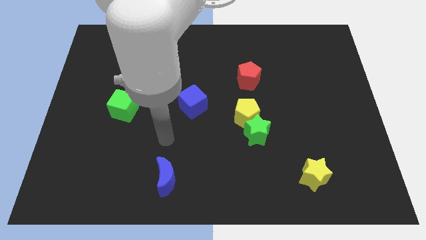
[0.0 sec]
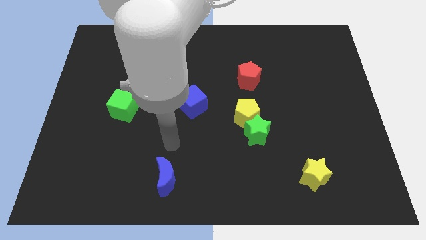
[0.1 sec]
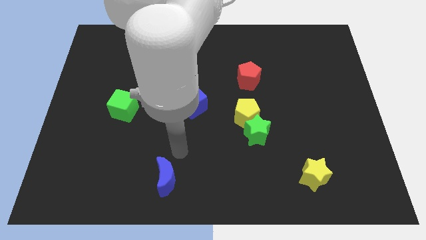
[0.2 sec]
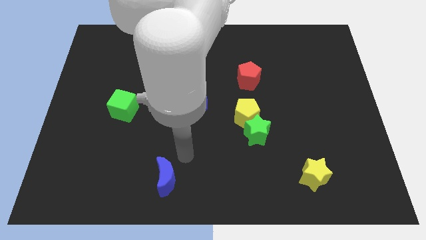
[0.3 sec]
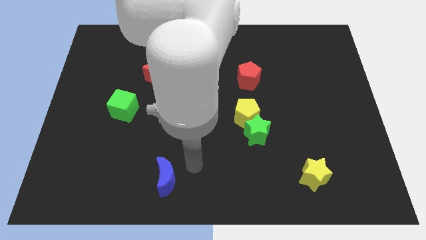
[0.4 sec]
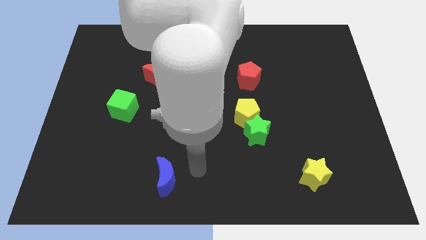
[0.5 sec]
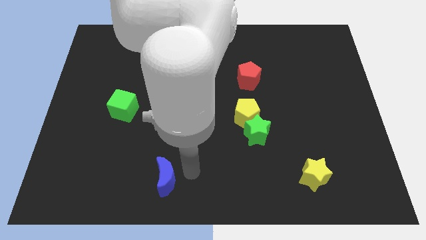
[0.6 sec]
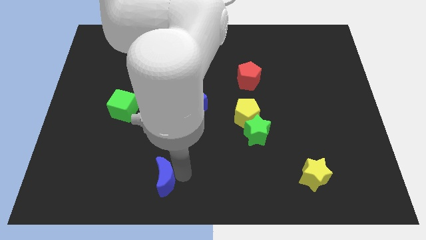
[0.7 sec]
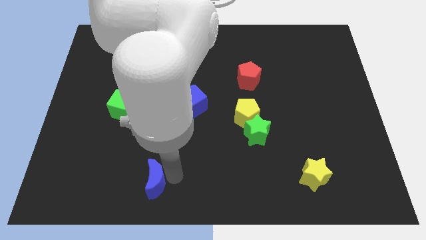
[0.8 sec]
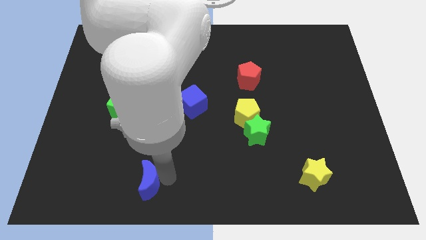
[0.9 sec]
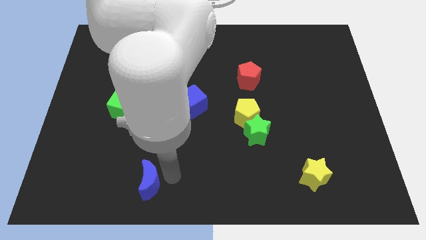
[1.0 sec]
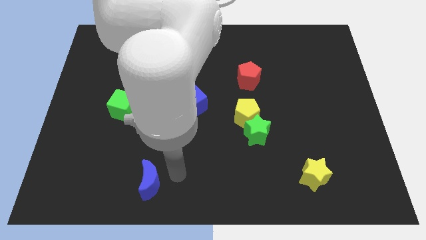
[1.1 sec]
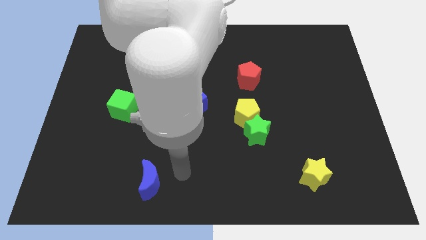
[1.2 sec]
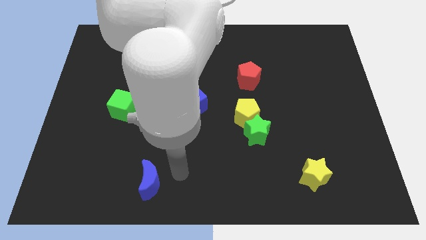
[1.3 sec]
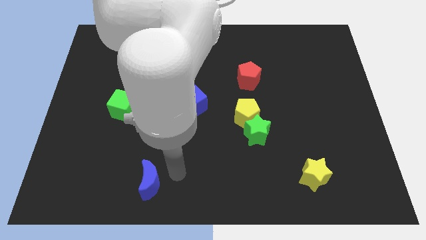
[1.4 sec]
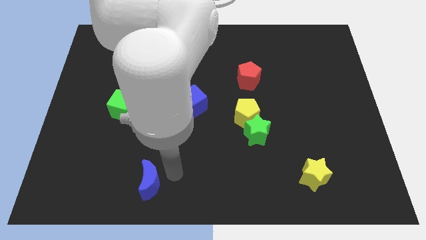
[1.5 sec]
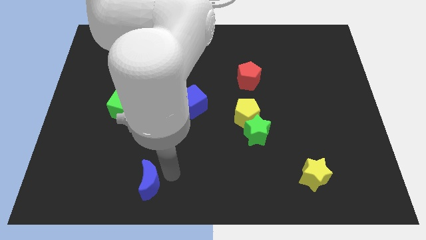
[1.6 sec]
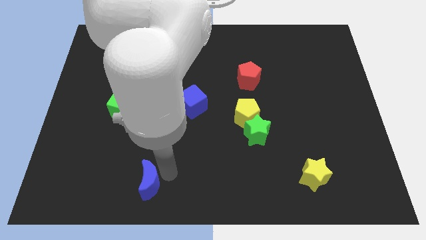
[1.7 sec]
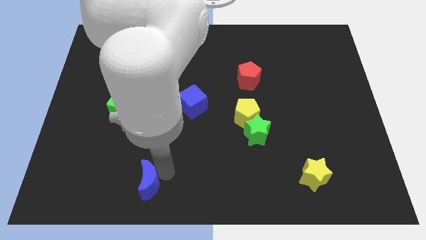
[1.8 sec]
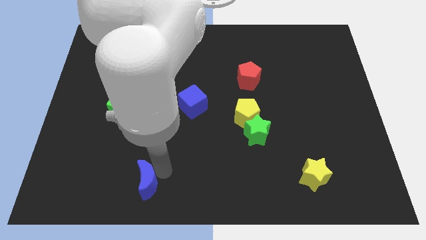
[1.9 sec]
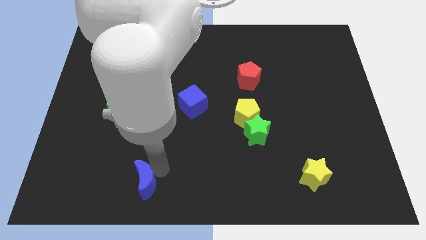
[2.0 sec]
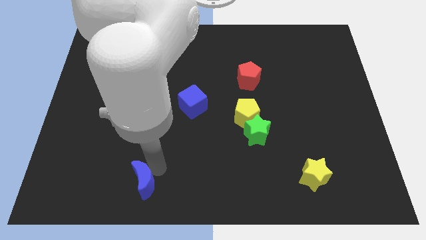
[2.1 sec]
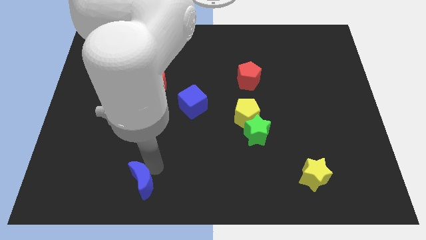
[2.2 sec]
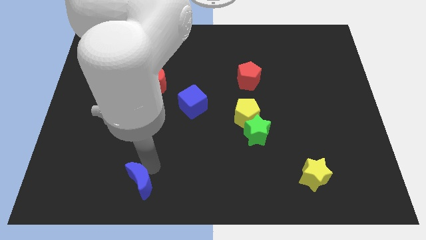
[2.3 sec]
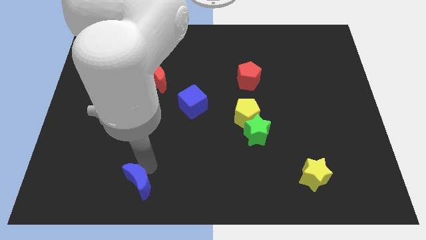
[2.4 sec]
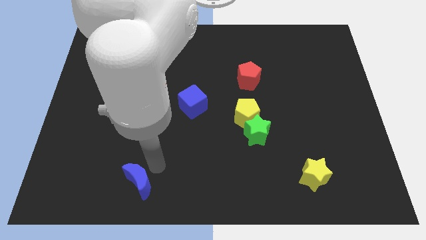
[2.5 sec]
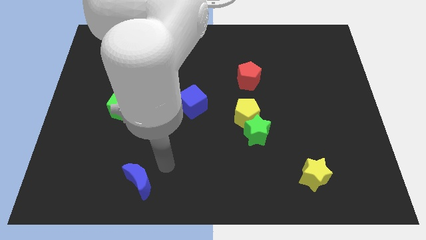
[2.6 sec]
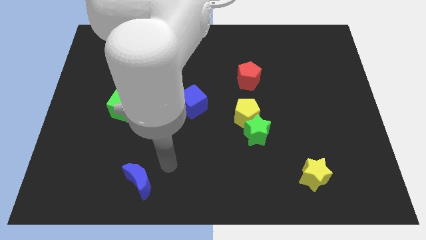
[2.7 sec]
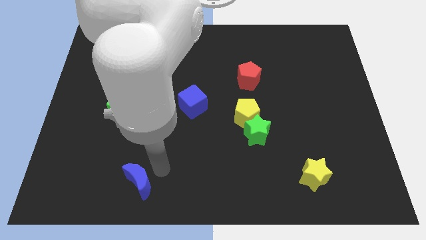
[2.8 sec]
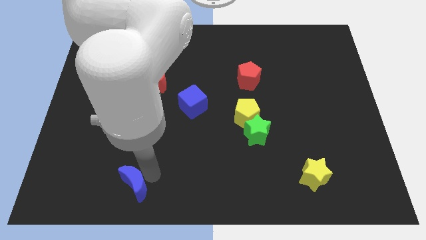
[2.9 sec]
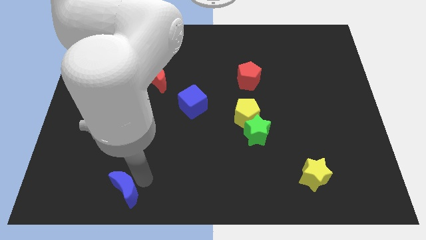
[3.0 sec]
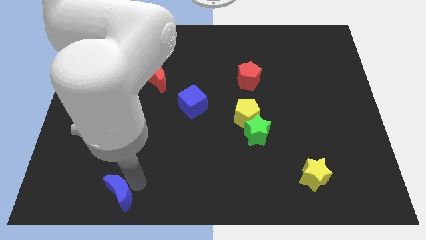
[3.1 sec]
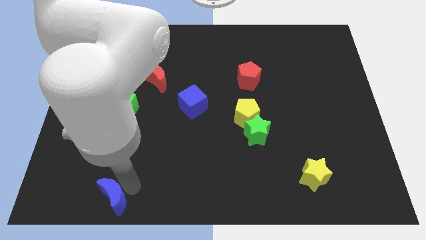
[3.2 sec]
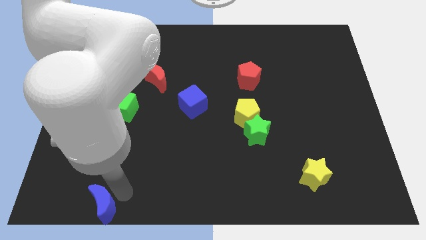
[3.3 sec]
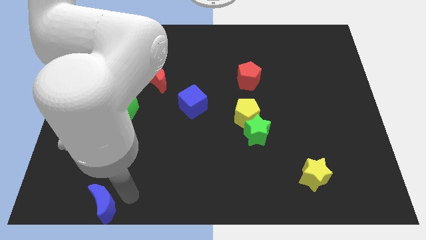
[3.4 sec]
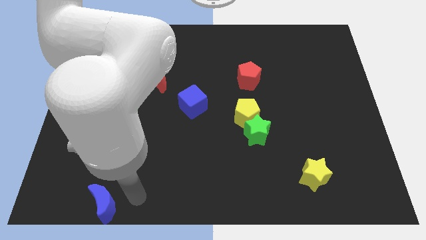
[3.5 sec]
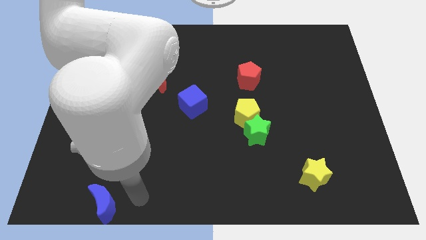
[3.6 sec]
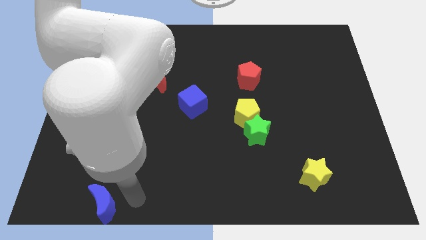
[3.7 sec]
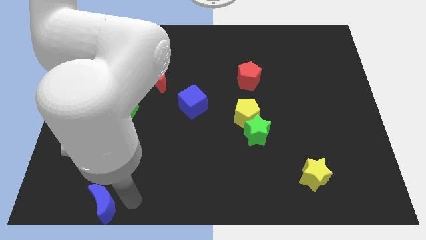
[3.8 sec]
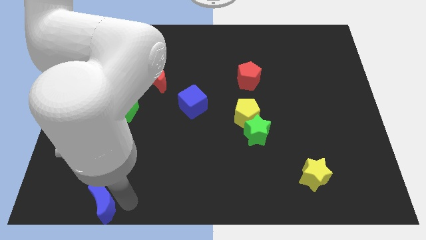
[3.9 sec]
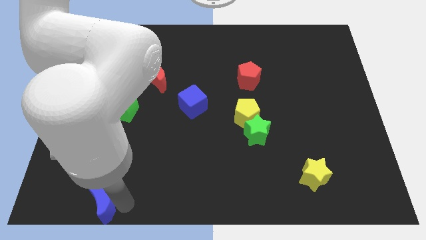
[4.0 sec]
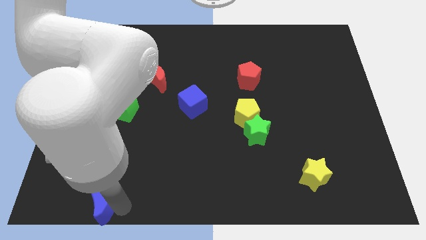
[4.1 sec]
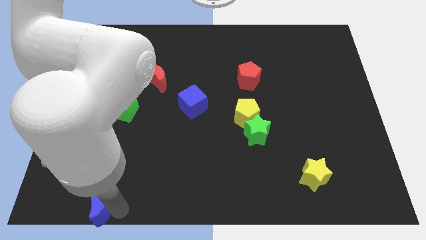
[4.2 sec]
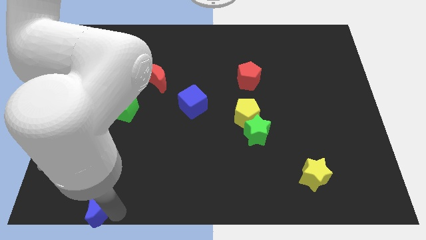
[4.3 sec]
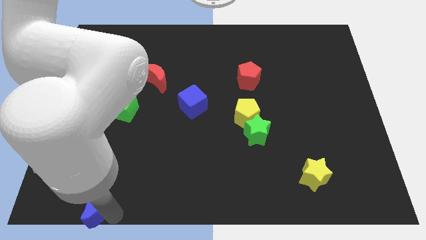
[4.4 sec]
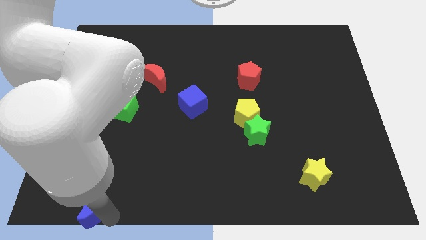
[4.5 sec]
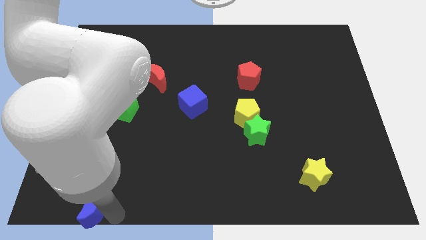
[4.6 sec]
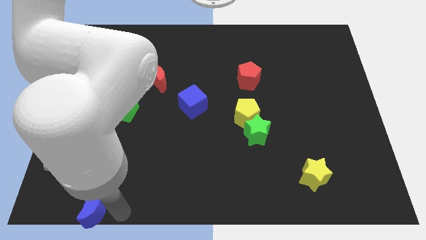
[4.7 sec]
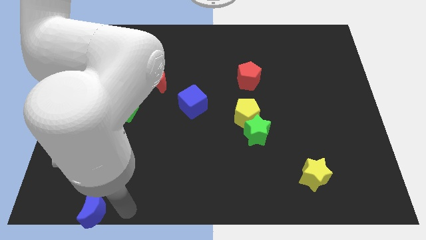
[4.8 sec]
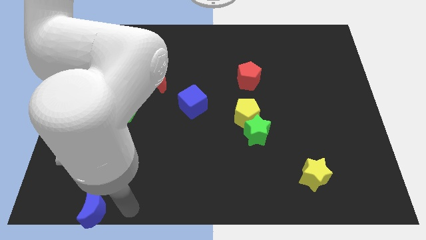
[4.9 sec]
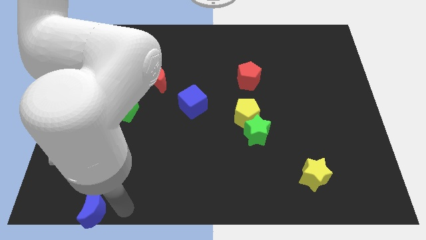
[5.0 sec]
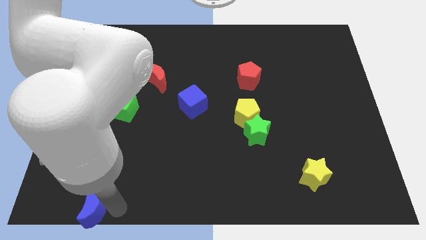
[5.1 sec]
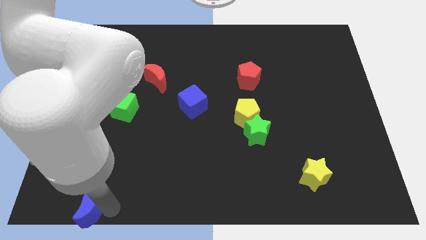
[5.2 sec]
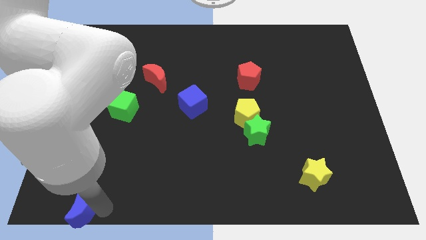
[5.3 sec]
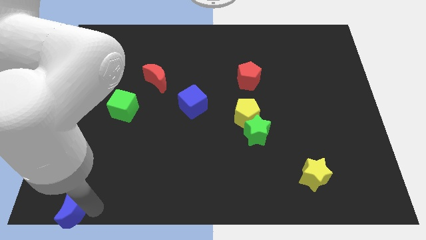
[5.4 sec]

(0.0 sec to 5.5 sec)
move the blue moon to the bottom left of the board

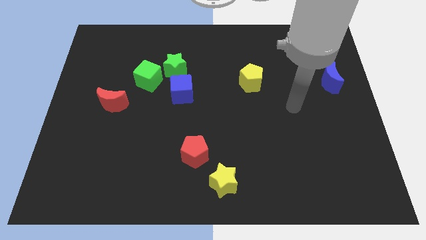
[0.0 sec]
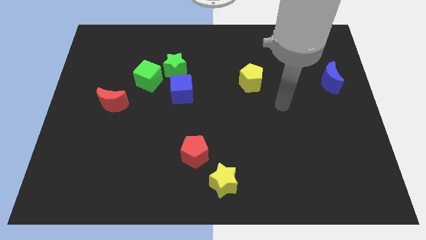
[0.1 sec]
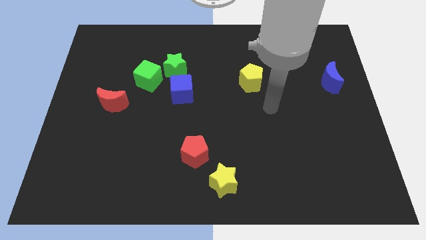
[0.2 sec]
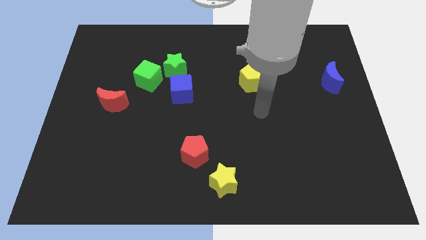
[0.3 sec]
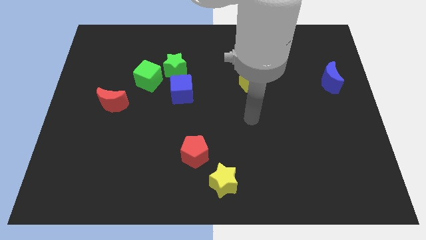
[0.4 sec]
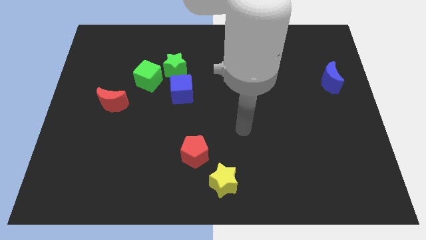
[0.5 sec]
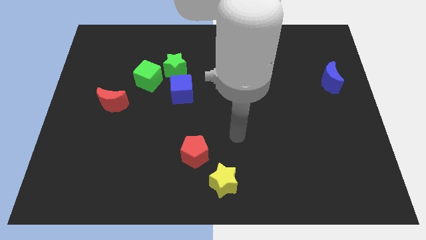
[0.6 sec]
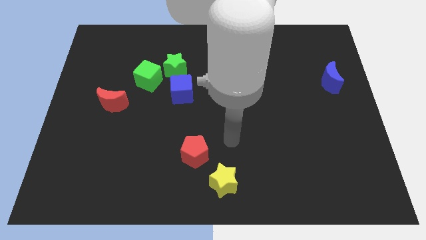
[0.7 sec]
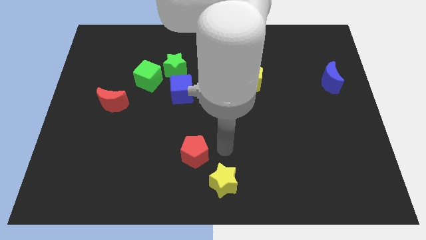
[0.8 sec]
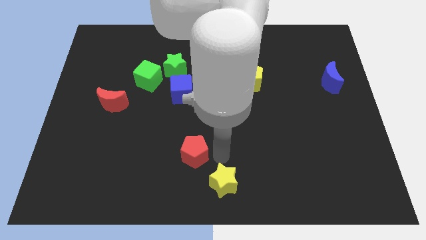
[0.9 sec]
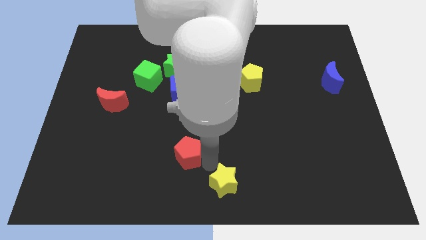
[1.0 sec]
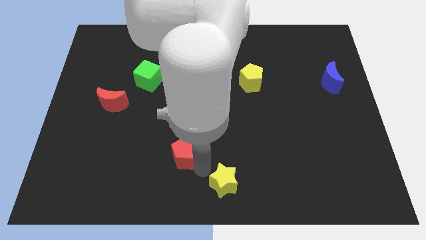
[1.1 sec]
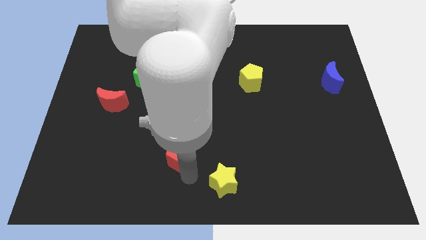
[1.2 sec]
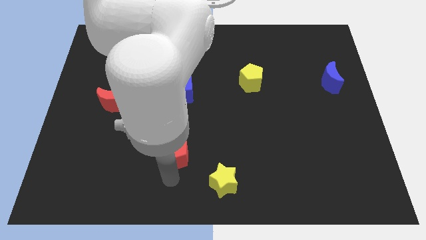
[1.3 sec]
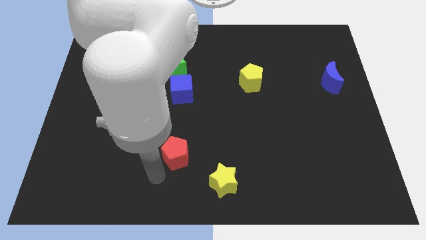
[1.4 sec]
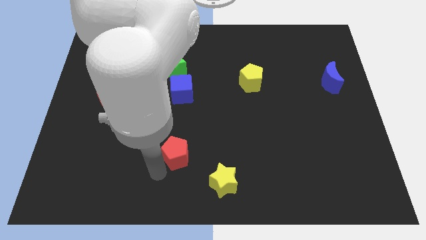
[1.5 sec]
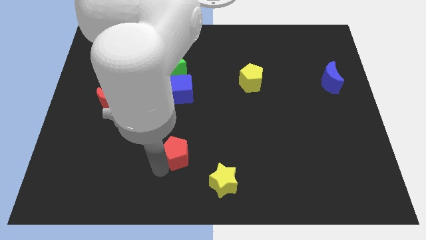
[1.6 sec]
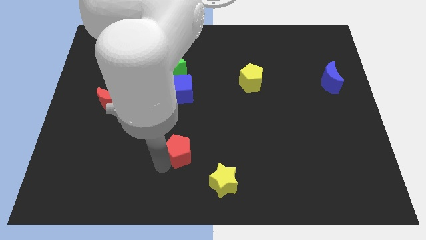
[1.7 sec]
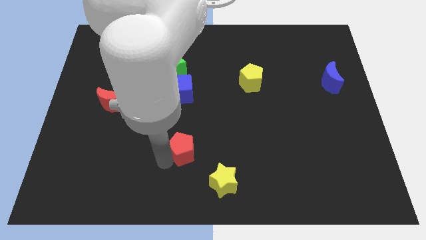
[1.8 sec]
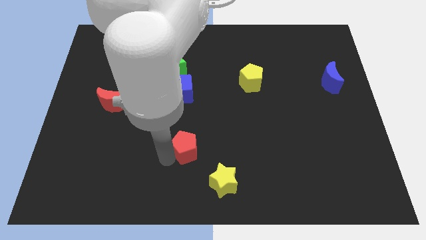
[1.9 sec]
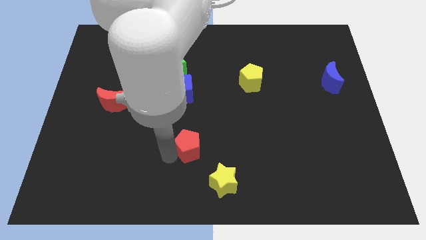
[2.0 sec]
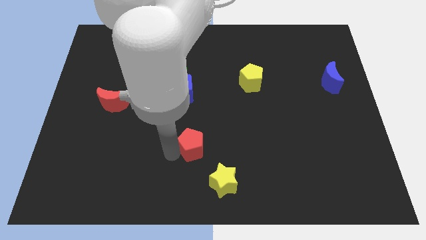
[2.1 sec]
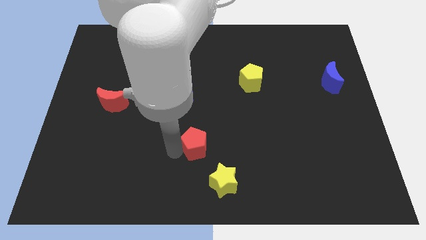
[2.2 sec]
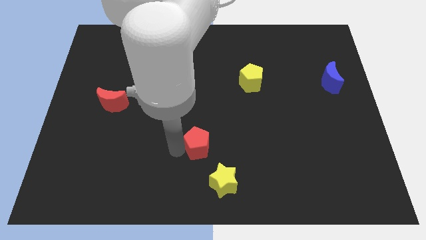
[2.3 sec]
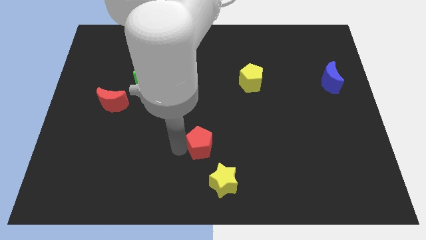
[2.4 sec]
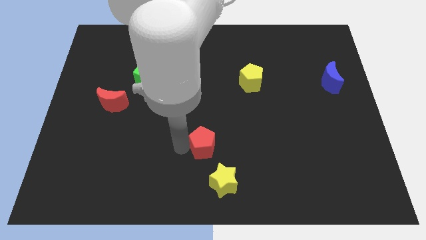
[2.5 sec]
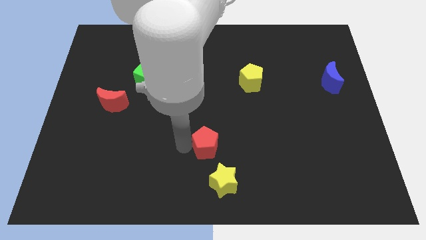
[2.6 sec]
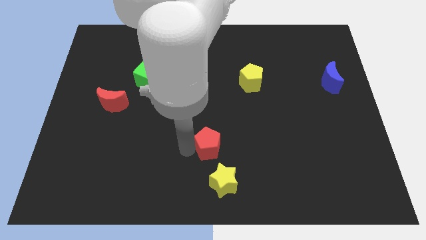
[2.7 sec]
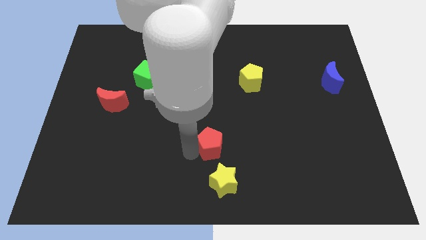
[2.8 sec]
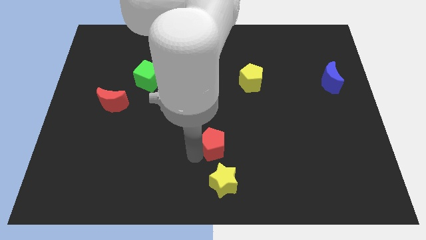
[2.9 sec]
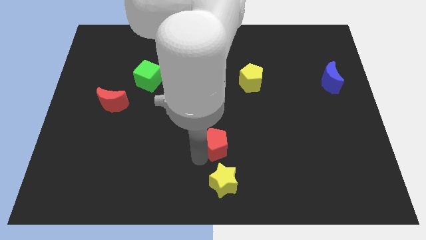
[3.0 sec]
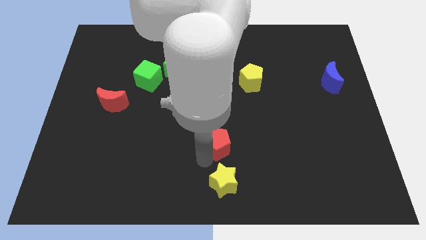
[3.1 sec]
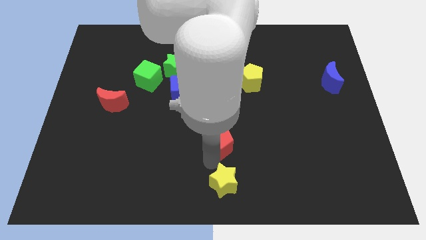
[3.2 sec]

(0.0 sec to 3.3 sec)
put the red pentagon to the middle of the board
